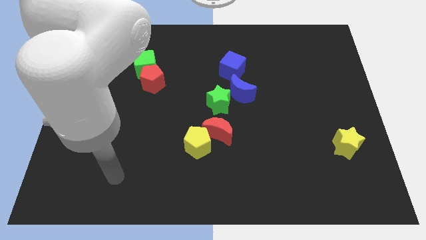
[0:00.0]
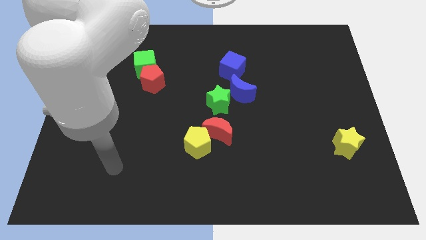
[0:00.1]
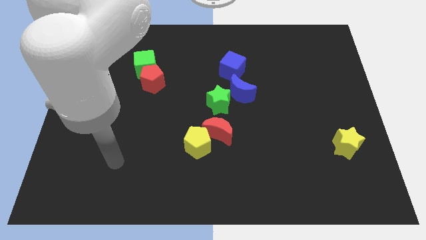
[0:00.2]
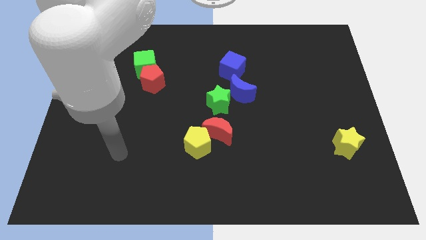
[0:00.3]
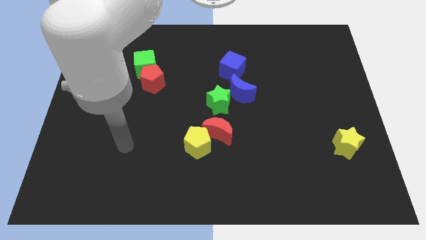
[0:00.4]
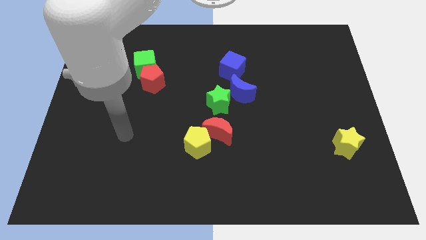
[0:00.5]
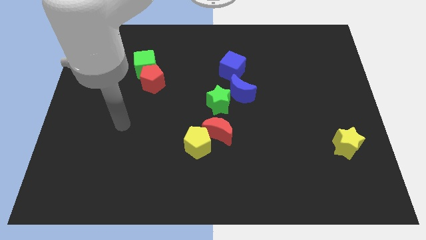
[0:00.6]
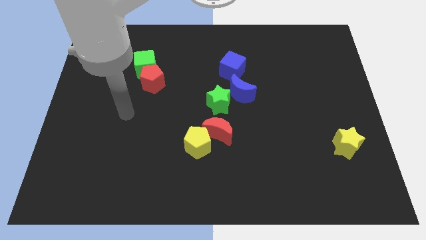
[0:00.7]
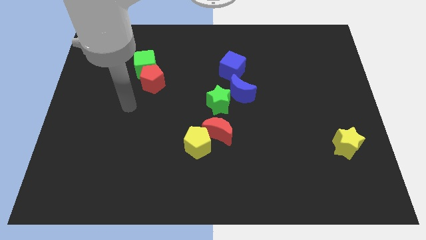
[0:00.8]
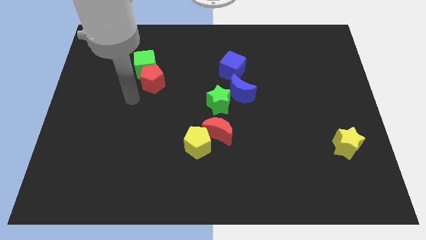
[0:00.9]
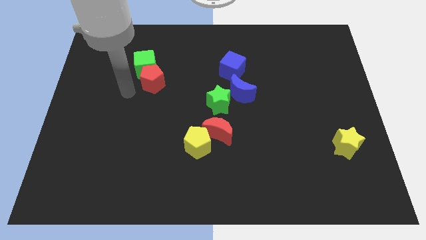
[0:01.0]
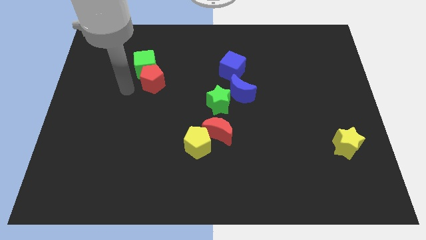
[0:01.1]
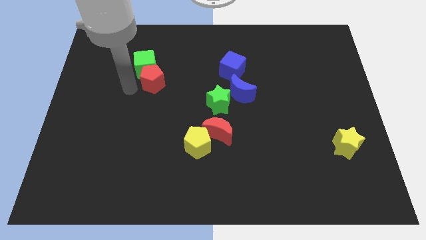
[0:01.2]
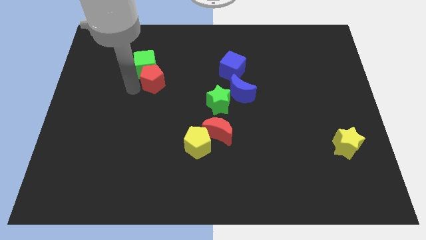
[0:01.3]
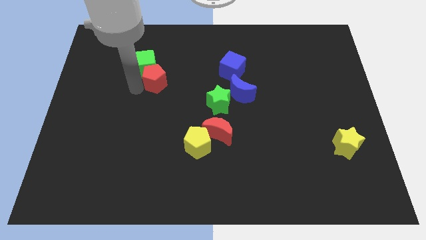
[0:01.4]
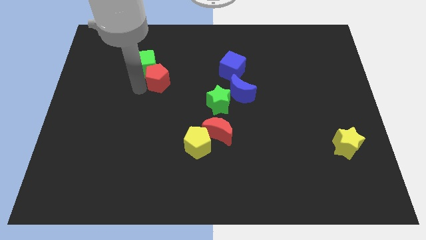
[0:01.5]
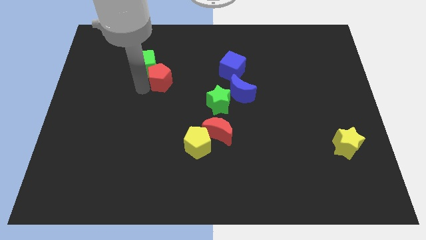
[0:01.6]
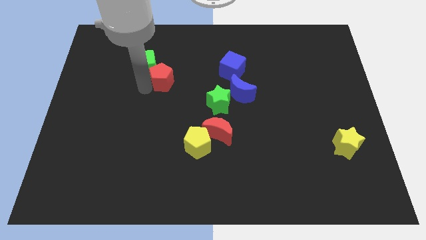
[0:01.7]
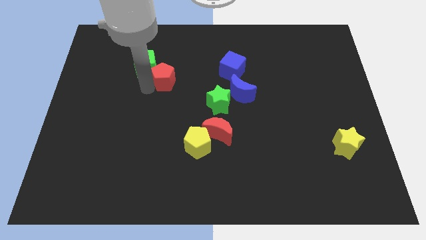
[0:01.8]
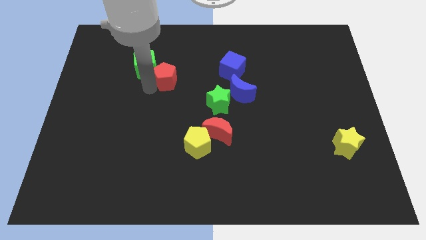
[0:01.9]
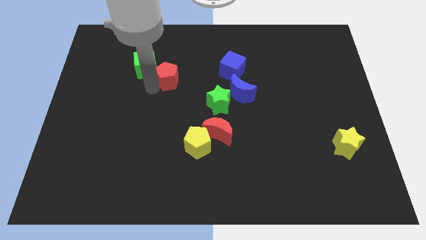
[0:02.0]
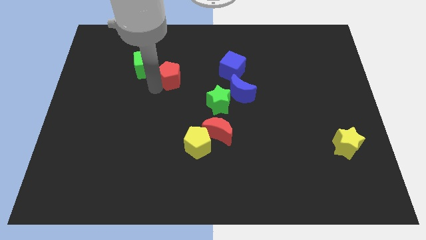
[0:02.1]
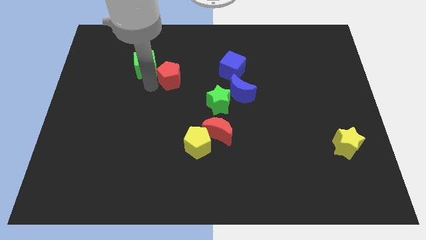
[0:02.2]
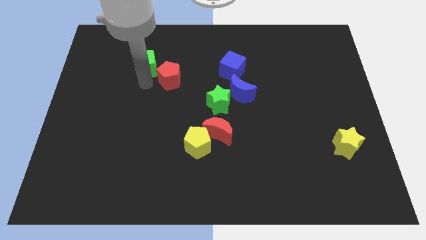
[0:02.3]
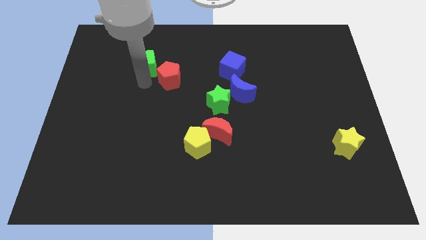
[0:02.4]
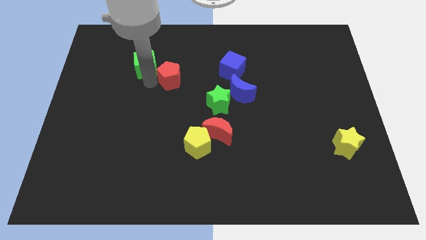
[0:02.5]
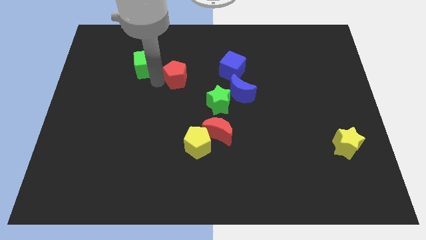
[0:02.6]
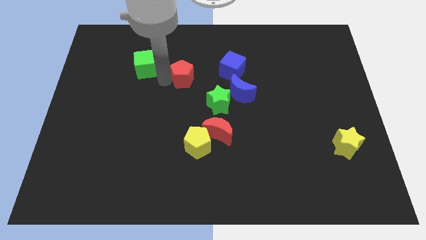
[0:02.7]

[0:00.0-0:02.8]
slightly slide the red pentagon to the right

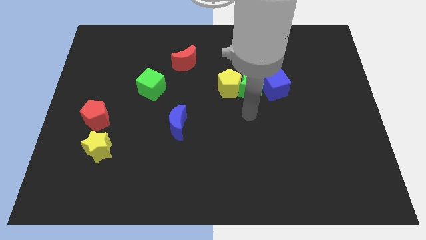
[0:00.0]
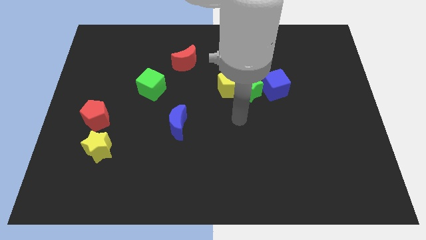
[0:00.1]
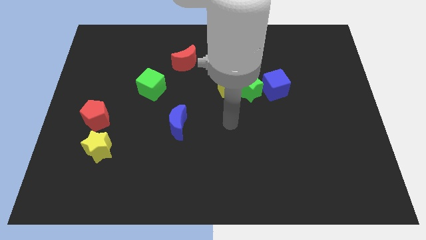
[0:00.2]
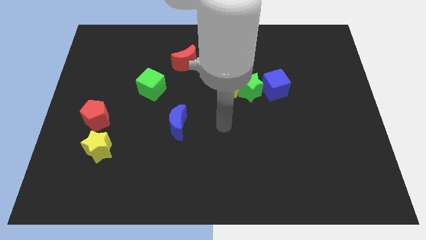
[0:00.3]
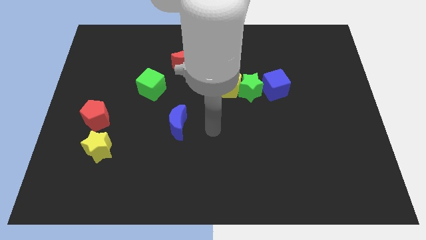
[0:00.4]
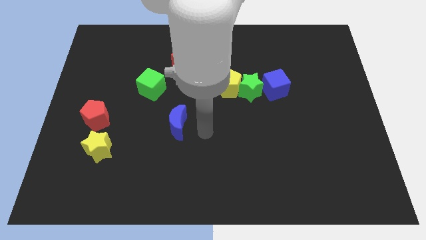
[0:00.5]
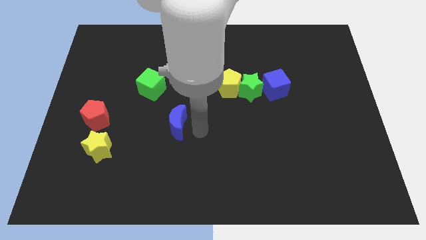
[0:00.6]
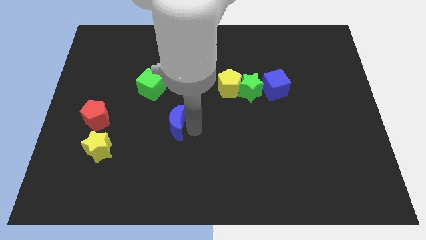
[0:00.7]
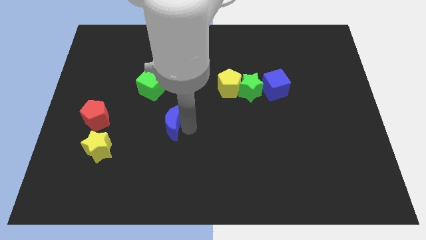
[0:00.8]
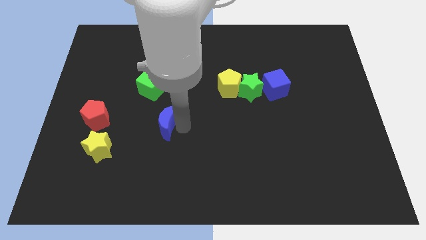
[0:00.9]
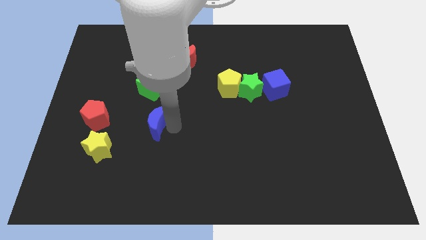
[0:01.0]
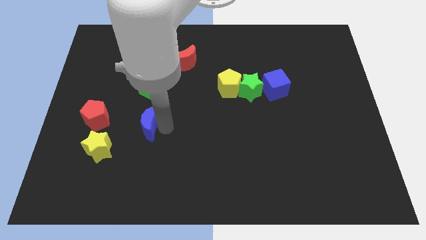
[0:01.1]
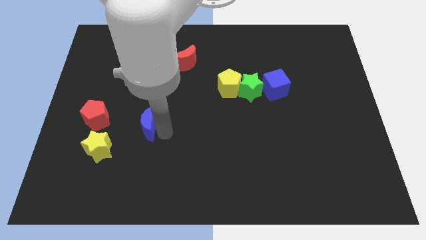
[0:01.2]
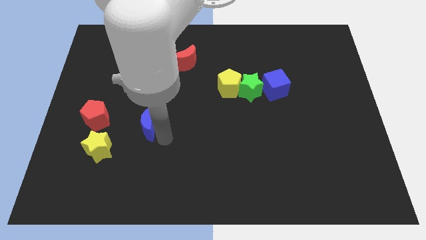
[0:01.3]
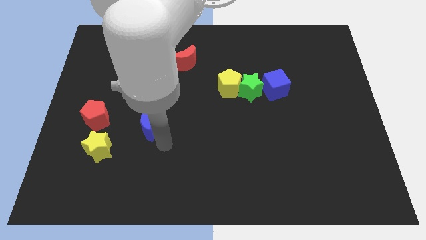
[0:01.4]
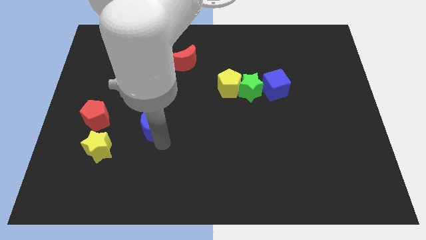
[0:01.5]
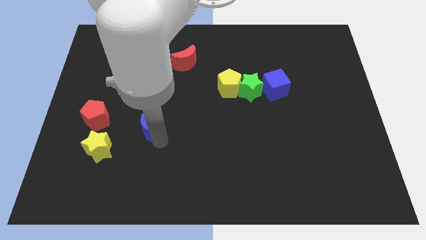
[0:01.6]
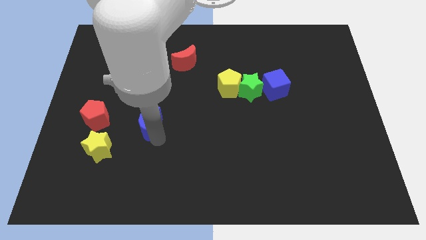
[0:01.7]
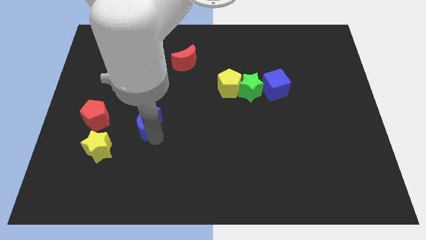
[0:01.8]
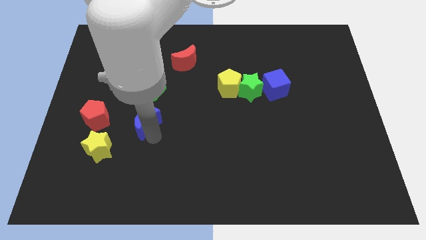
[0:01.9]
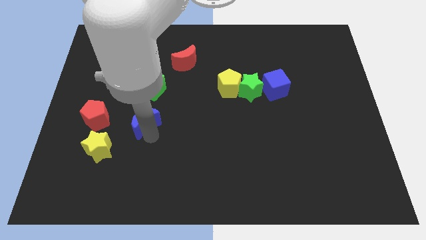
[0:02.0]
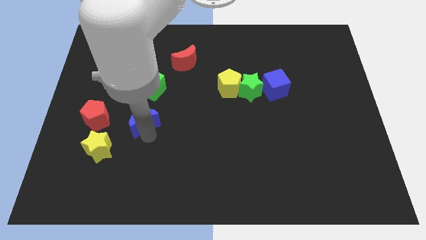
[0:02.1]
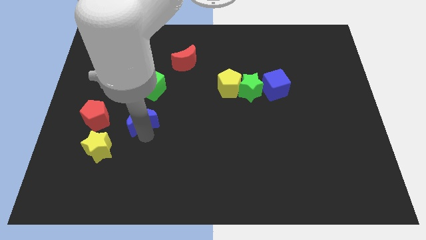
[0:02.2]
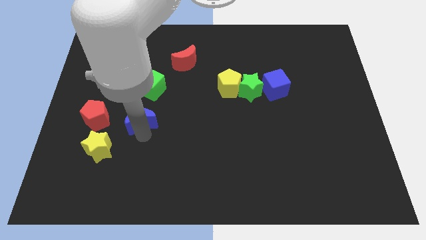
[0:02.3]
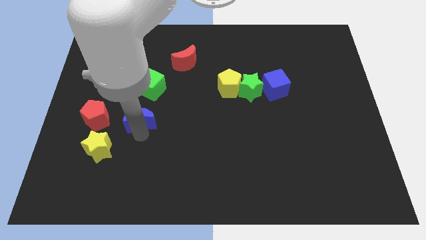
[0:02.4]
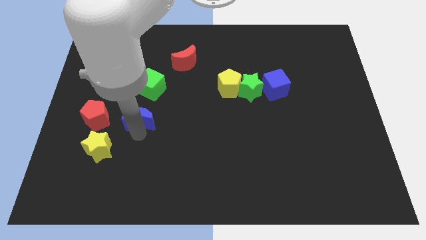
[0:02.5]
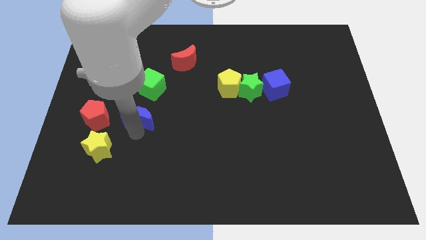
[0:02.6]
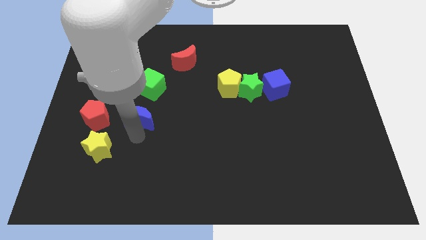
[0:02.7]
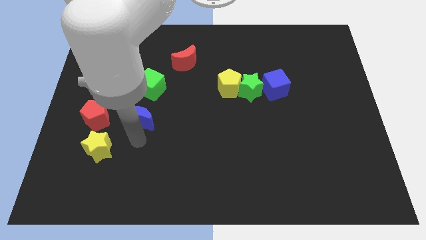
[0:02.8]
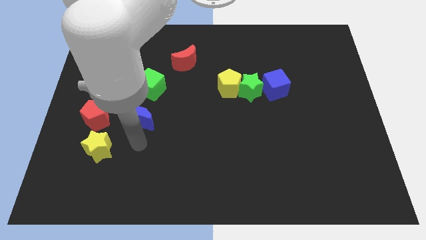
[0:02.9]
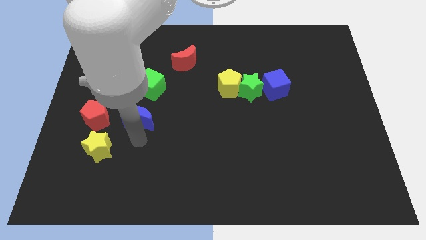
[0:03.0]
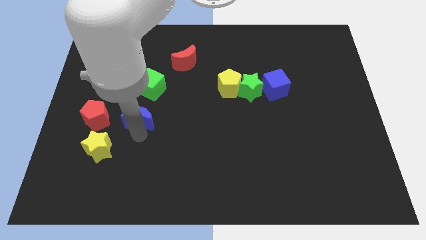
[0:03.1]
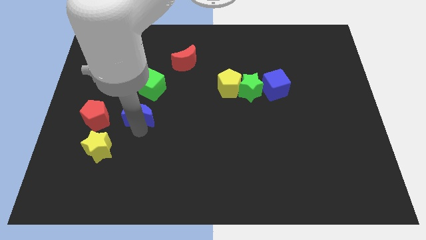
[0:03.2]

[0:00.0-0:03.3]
push the blue moon up and to the left a little

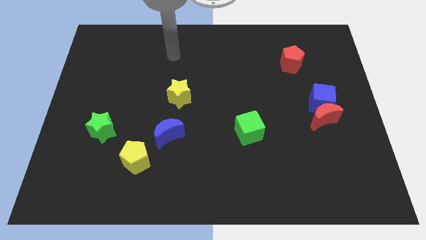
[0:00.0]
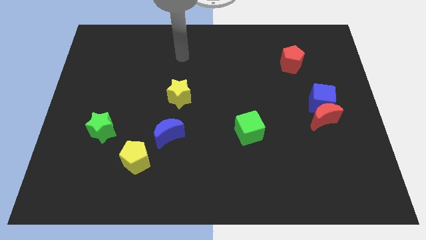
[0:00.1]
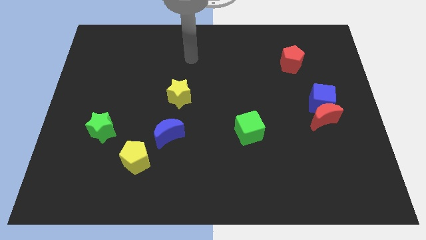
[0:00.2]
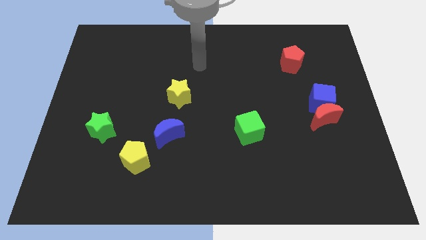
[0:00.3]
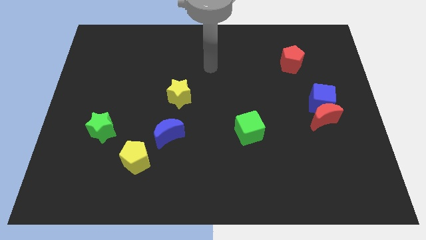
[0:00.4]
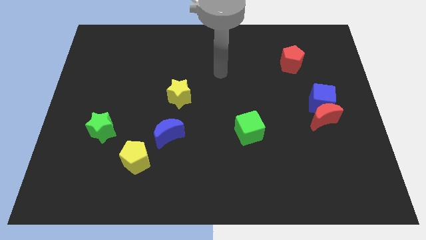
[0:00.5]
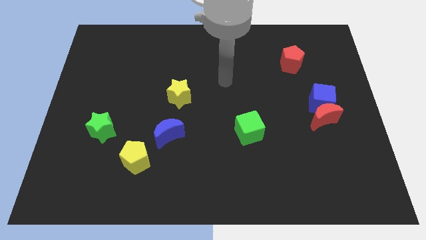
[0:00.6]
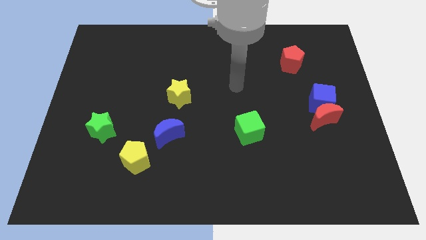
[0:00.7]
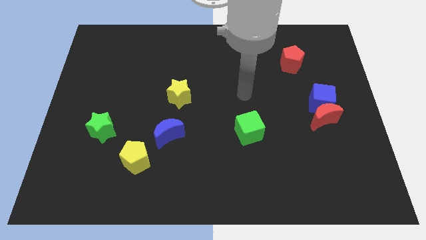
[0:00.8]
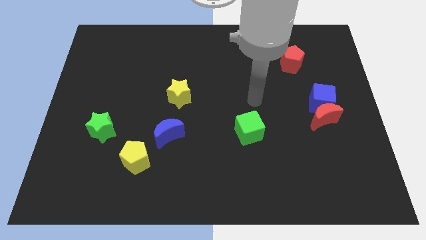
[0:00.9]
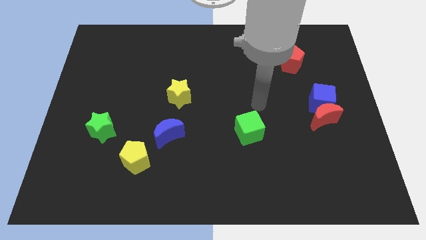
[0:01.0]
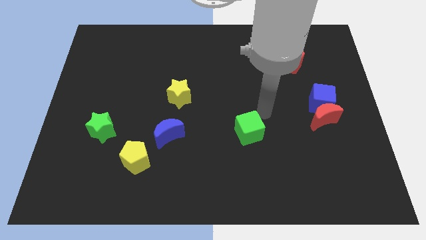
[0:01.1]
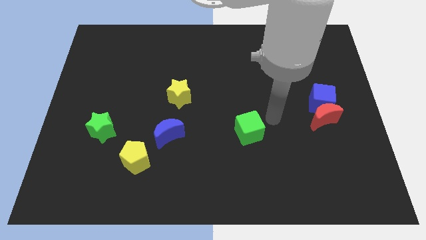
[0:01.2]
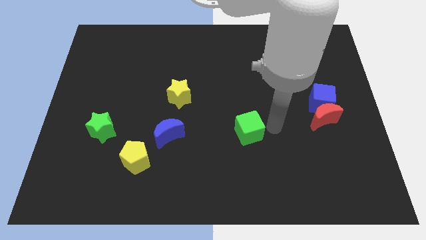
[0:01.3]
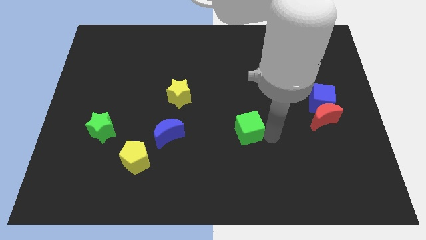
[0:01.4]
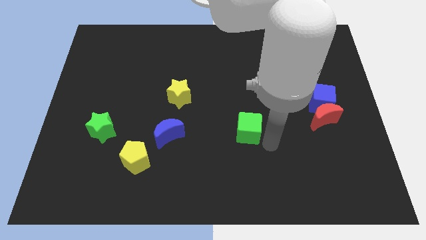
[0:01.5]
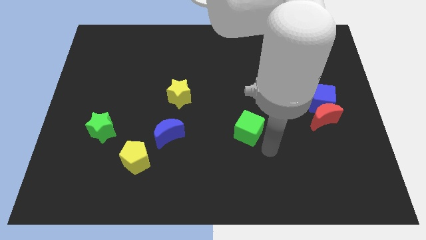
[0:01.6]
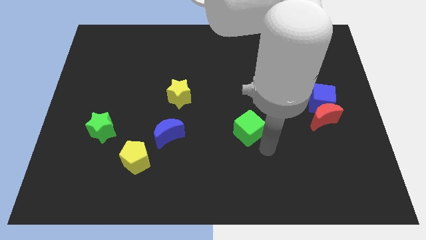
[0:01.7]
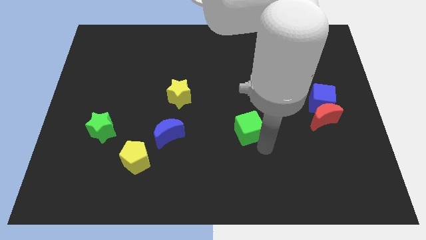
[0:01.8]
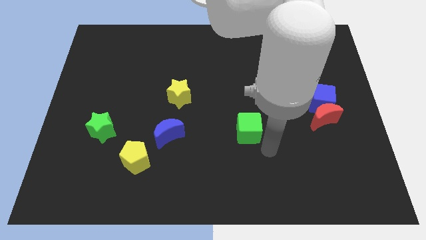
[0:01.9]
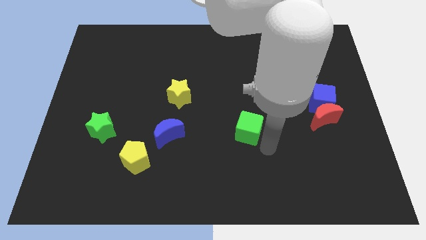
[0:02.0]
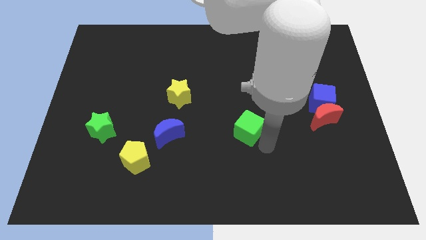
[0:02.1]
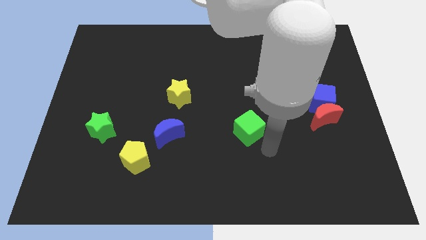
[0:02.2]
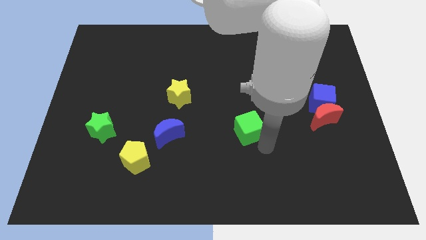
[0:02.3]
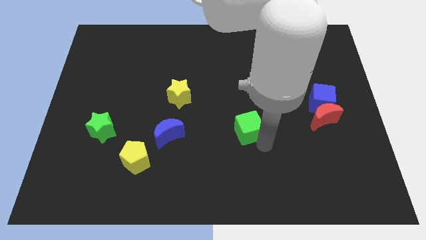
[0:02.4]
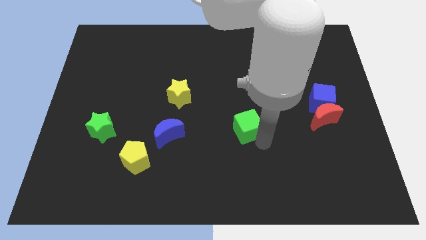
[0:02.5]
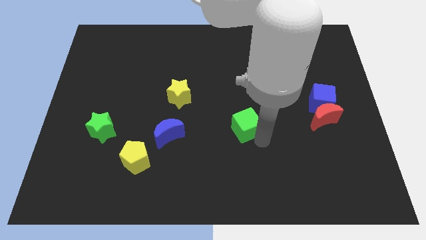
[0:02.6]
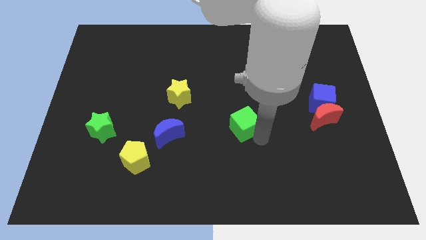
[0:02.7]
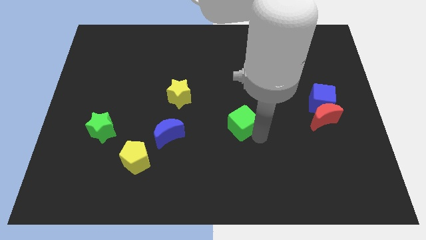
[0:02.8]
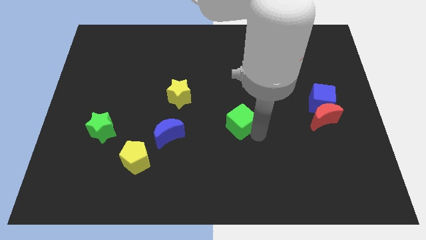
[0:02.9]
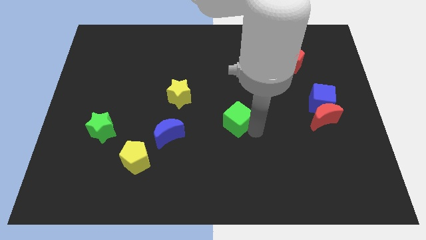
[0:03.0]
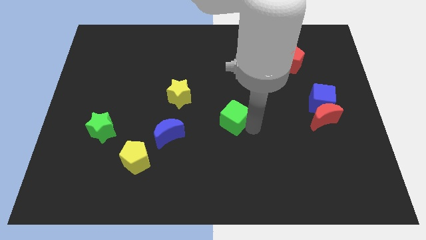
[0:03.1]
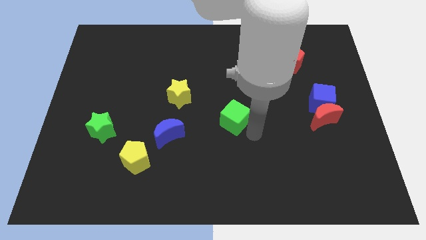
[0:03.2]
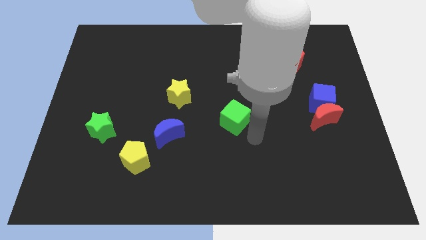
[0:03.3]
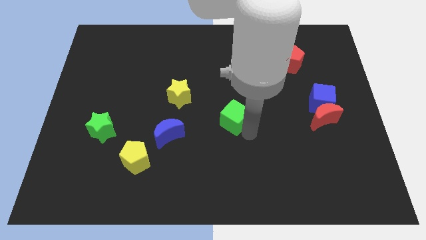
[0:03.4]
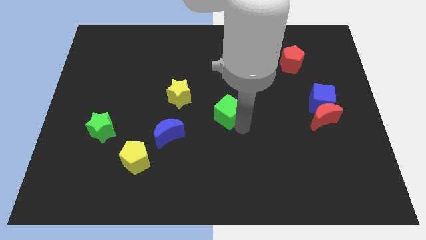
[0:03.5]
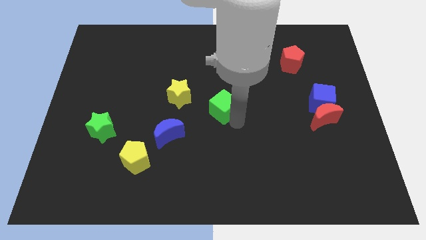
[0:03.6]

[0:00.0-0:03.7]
slightly push the green cube upwards and to the left diagonally
